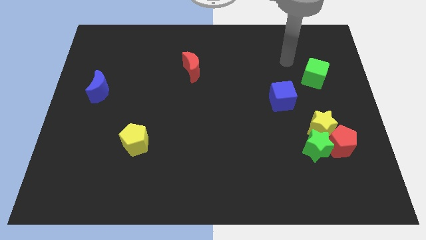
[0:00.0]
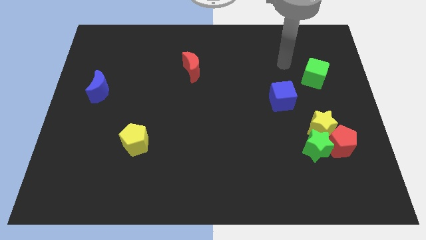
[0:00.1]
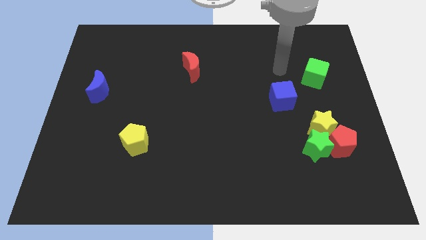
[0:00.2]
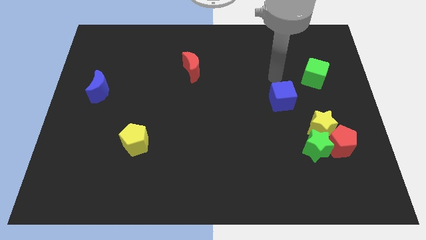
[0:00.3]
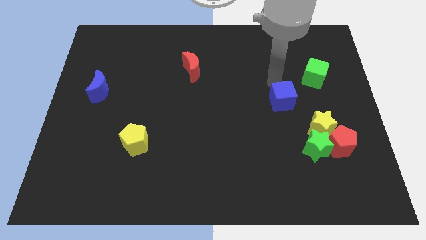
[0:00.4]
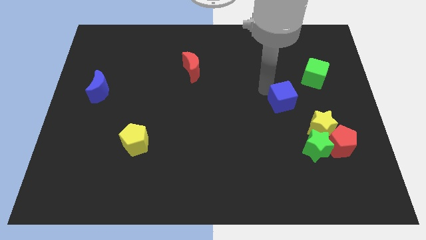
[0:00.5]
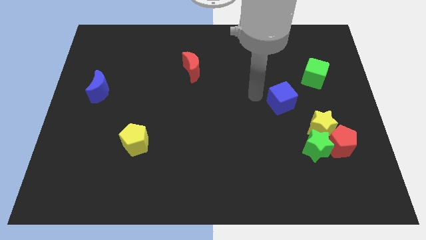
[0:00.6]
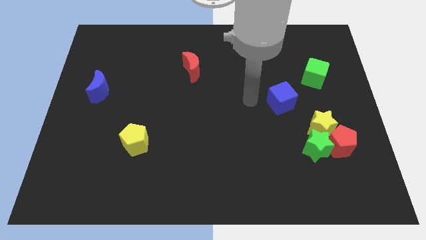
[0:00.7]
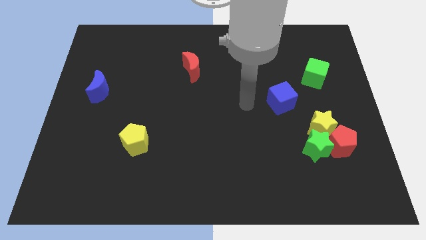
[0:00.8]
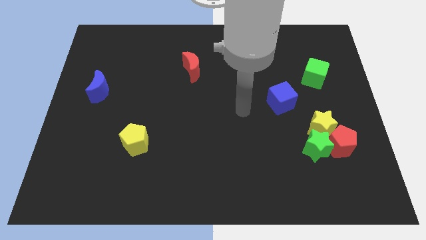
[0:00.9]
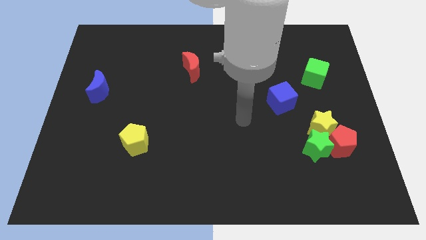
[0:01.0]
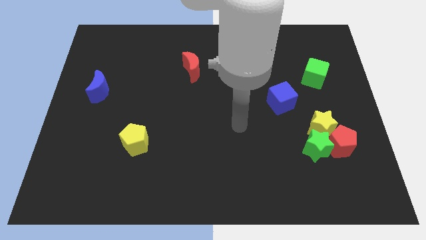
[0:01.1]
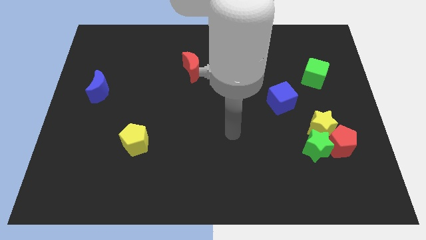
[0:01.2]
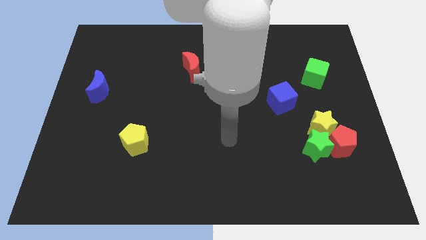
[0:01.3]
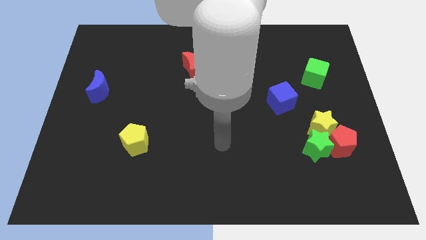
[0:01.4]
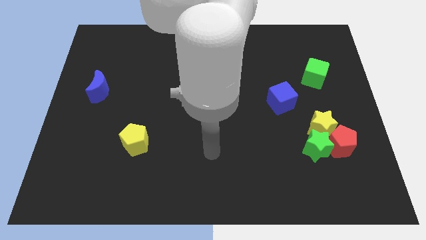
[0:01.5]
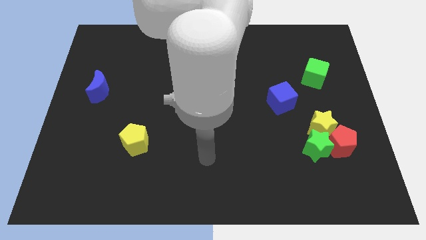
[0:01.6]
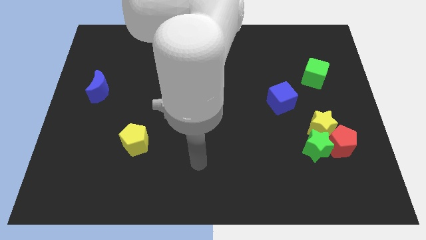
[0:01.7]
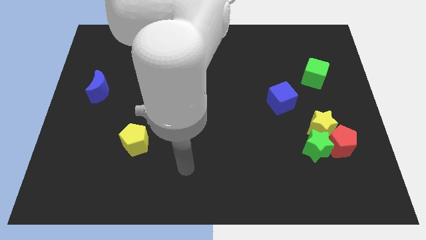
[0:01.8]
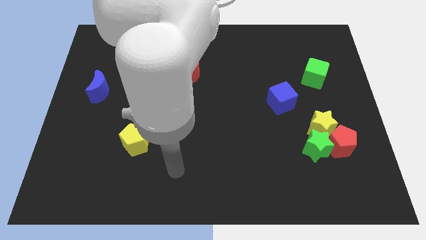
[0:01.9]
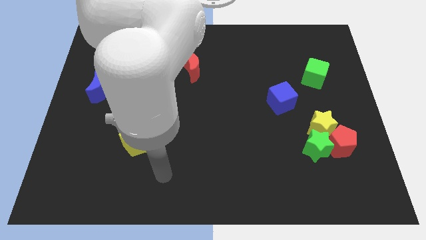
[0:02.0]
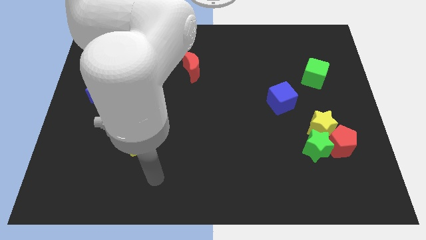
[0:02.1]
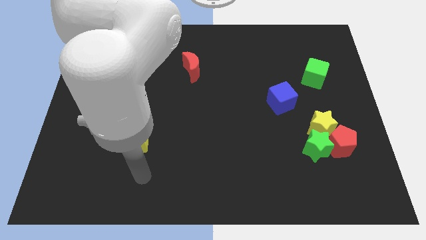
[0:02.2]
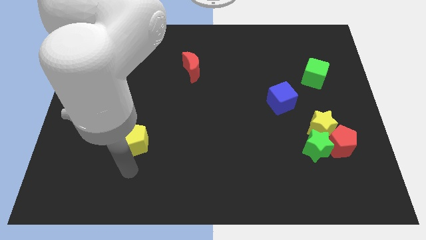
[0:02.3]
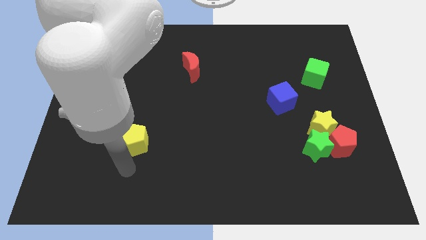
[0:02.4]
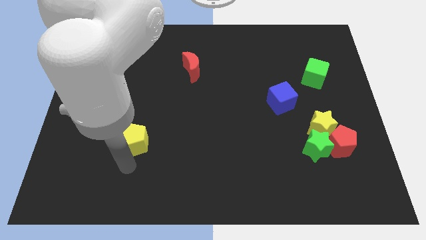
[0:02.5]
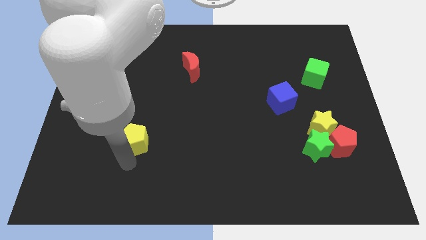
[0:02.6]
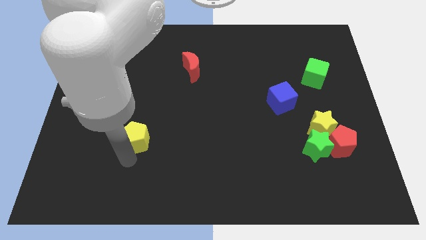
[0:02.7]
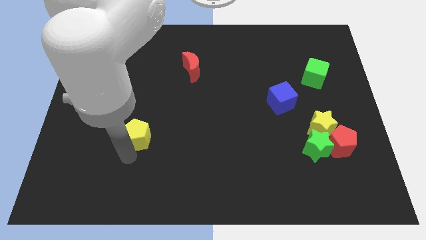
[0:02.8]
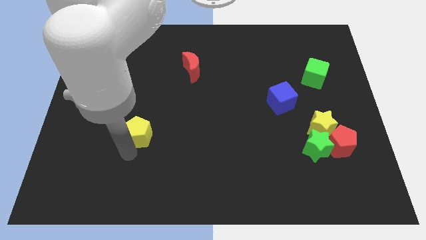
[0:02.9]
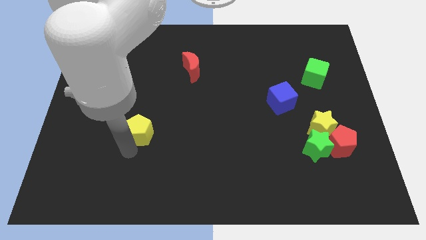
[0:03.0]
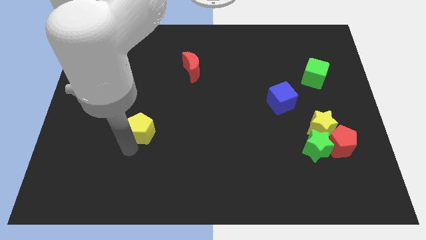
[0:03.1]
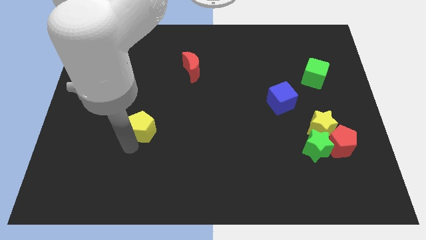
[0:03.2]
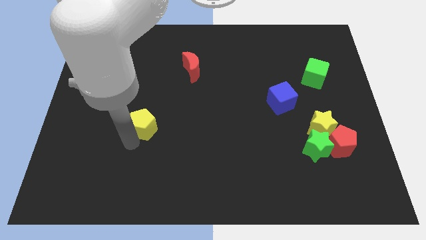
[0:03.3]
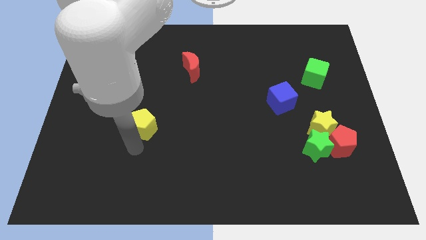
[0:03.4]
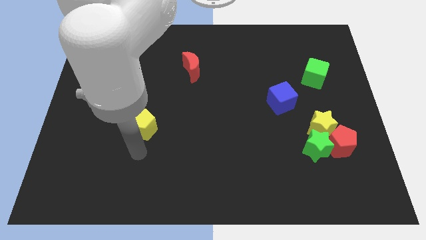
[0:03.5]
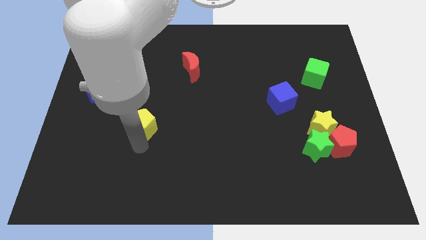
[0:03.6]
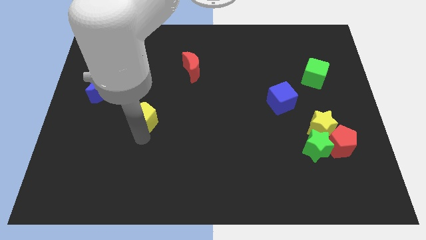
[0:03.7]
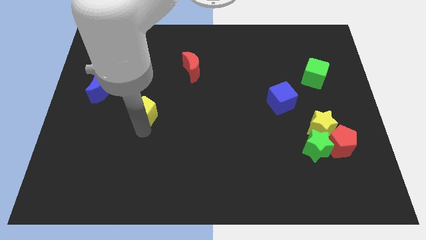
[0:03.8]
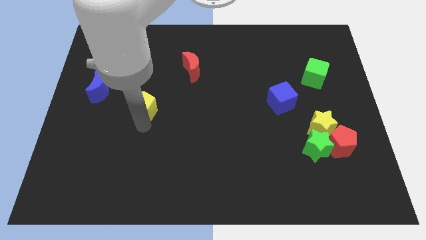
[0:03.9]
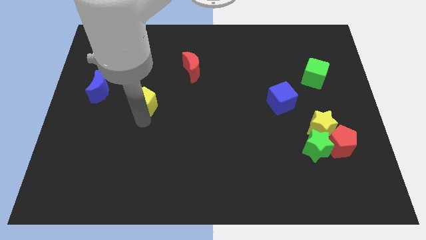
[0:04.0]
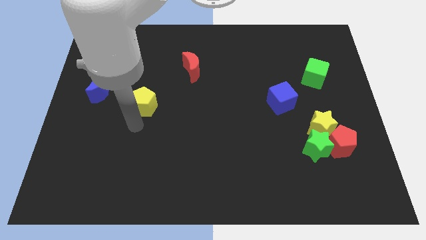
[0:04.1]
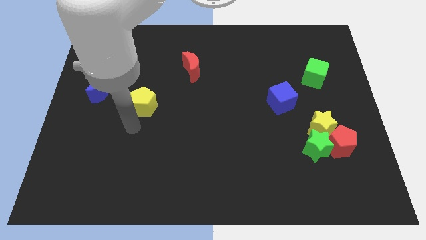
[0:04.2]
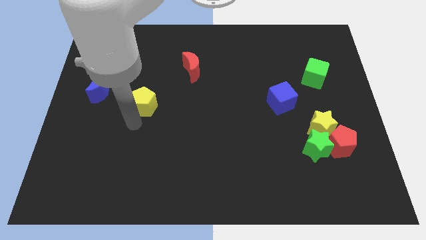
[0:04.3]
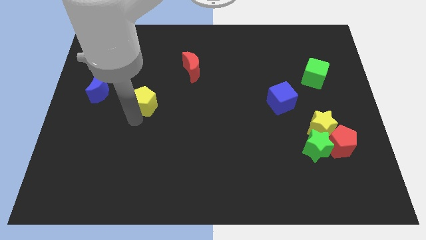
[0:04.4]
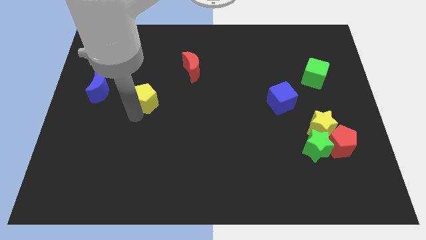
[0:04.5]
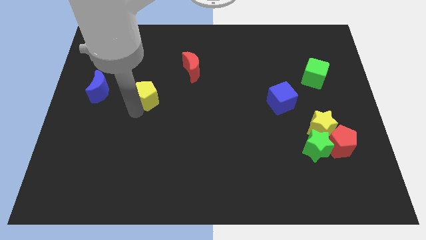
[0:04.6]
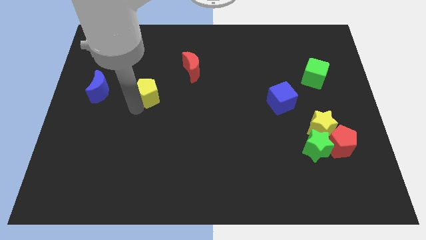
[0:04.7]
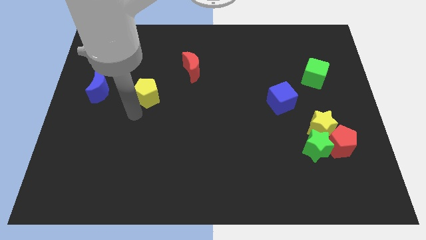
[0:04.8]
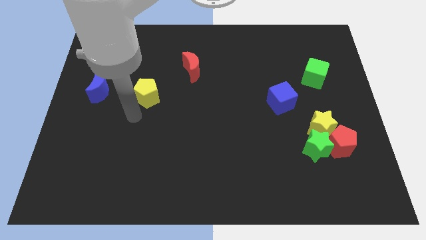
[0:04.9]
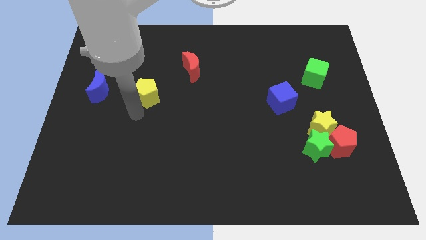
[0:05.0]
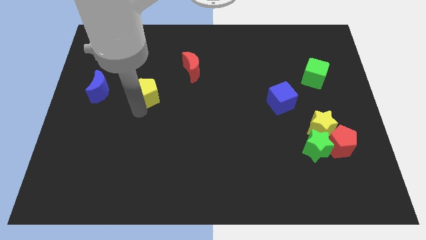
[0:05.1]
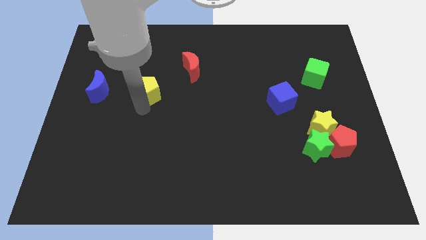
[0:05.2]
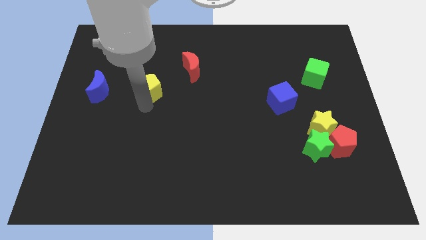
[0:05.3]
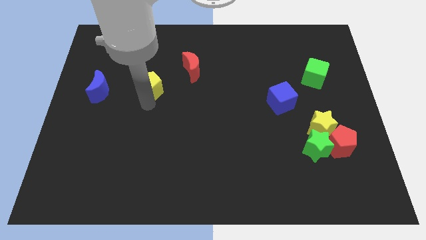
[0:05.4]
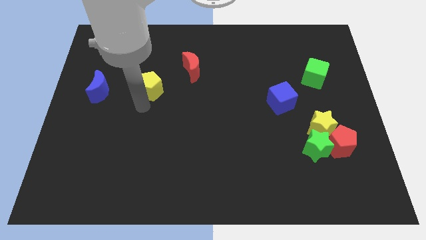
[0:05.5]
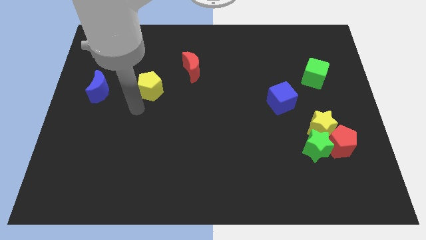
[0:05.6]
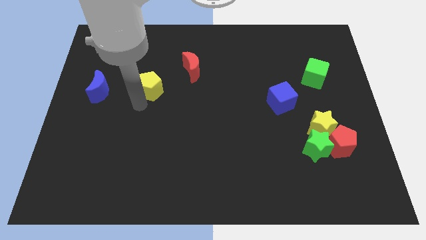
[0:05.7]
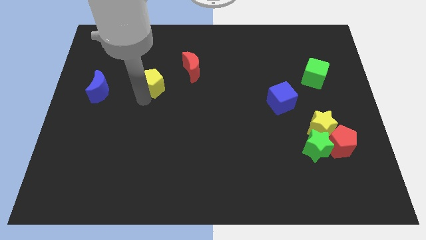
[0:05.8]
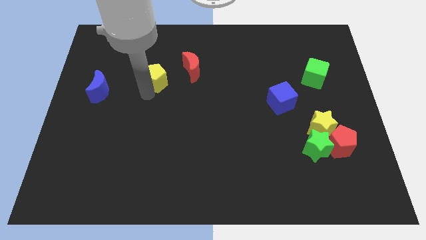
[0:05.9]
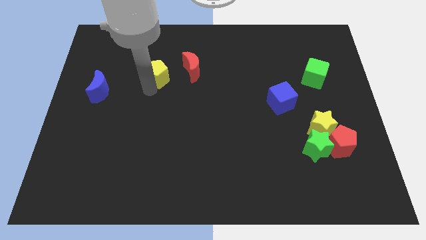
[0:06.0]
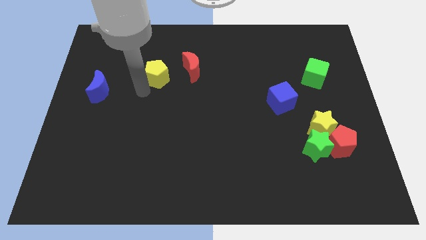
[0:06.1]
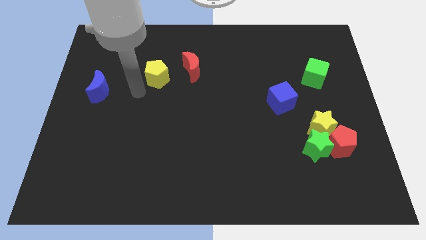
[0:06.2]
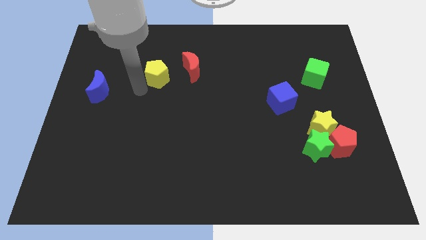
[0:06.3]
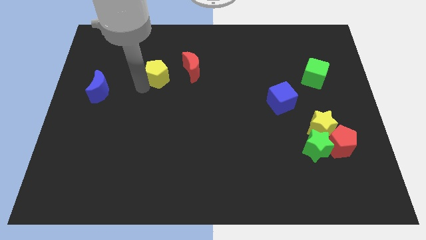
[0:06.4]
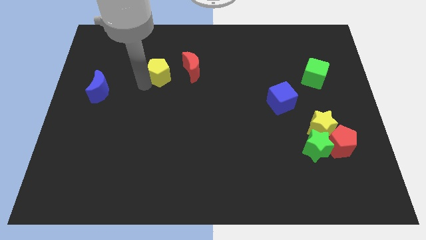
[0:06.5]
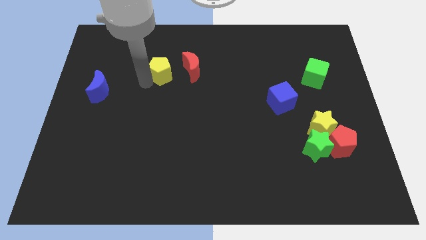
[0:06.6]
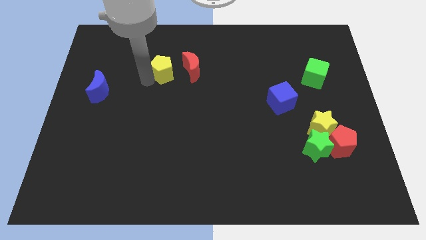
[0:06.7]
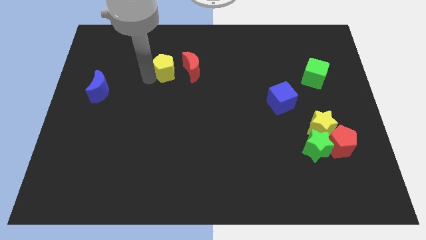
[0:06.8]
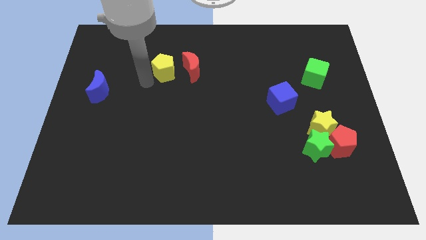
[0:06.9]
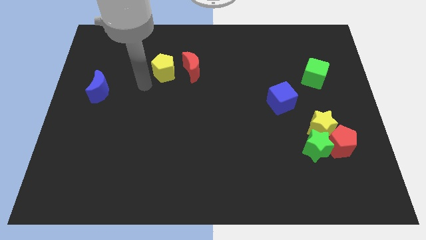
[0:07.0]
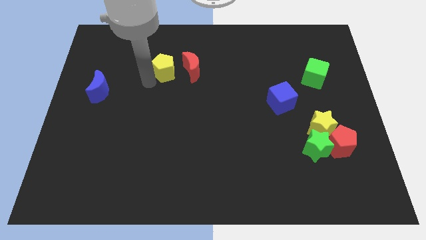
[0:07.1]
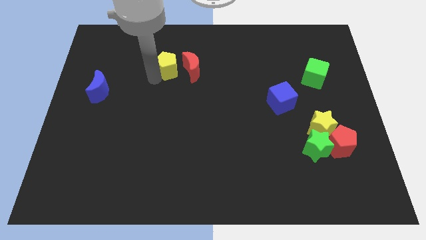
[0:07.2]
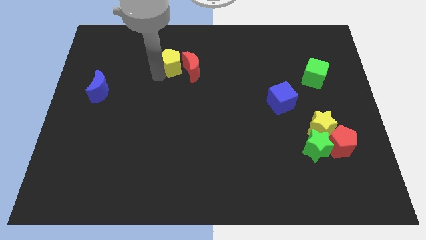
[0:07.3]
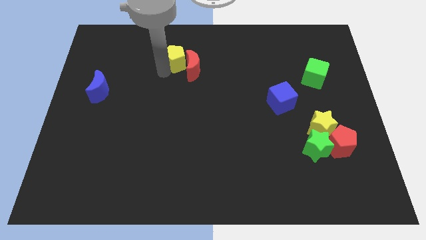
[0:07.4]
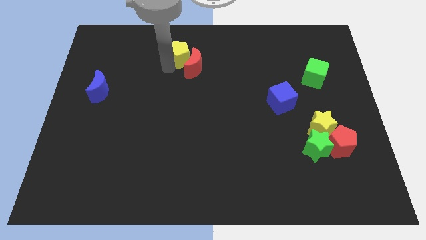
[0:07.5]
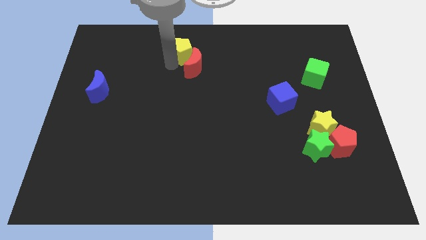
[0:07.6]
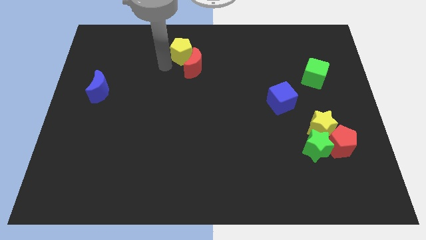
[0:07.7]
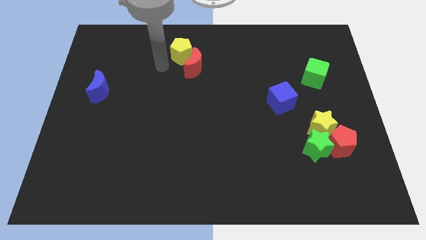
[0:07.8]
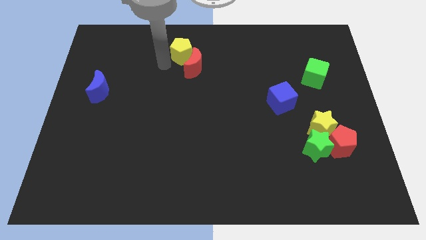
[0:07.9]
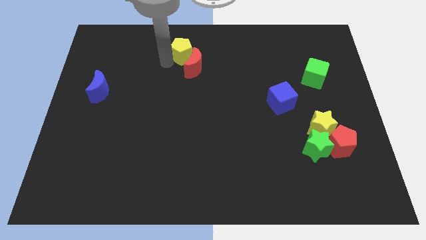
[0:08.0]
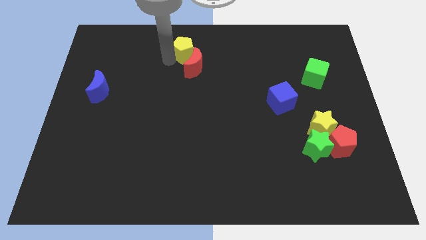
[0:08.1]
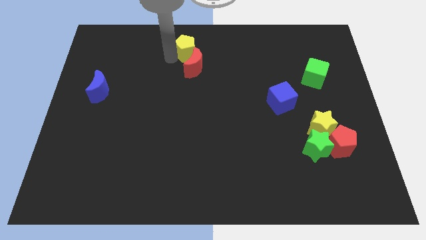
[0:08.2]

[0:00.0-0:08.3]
move the yellow pentagon to the top side
